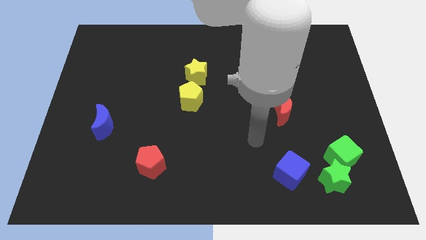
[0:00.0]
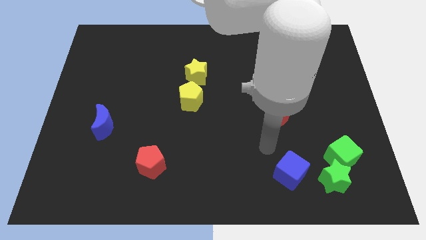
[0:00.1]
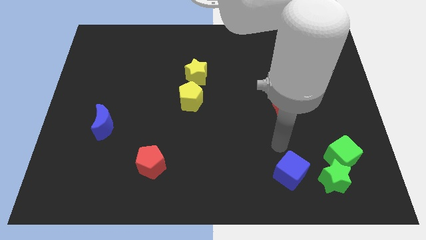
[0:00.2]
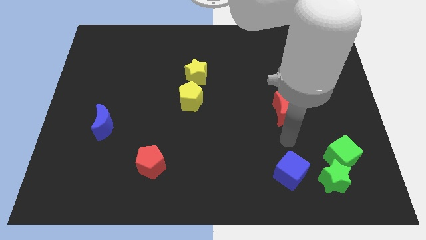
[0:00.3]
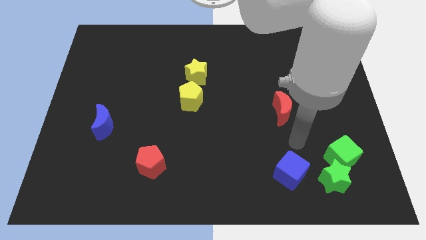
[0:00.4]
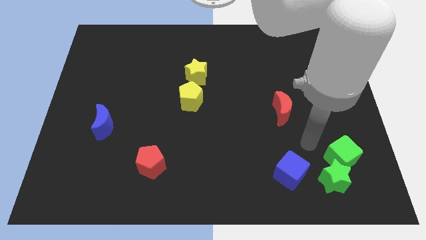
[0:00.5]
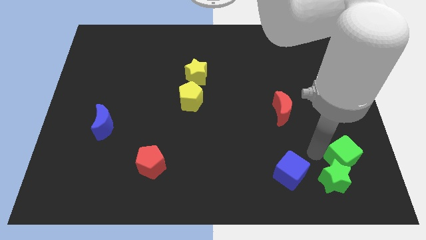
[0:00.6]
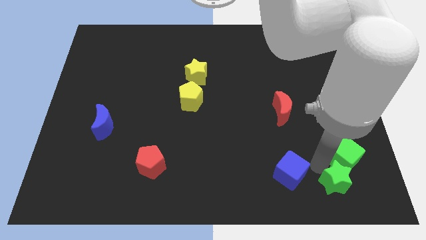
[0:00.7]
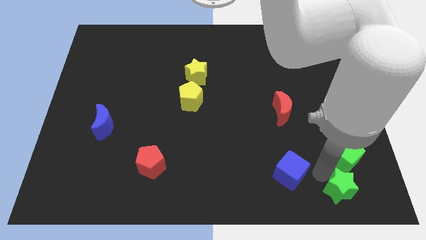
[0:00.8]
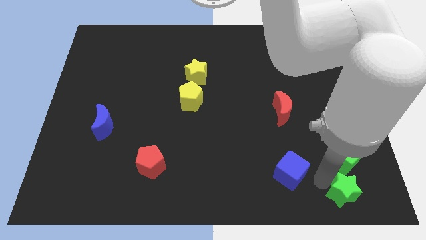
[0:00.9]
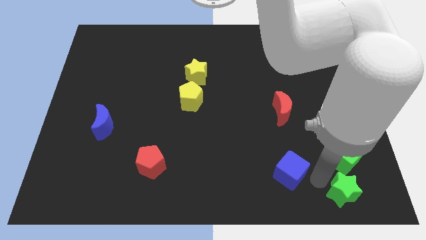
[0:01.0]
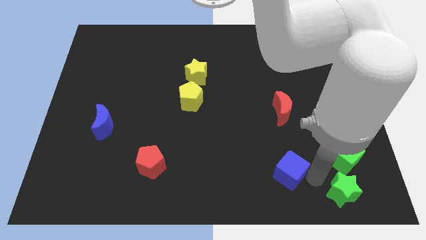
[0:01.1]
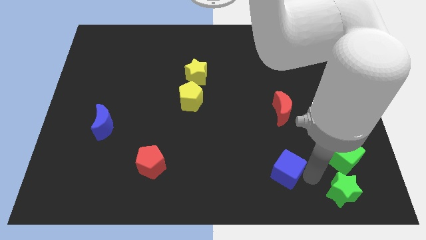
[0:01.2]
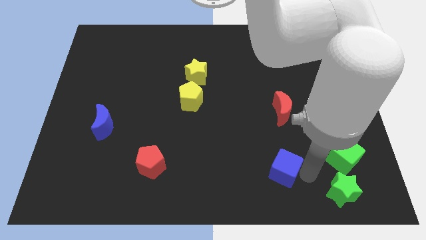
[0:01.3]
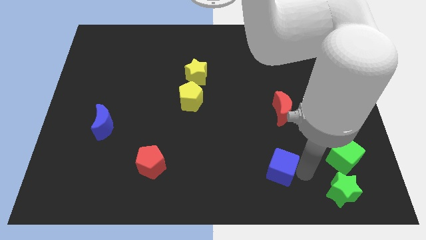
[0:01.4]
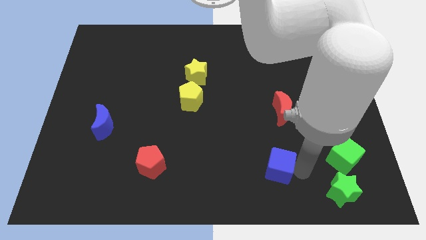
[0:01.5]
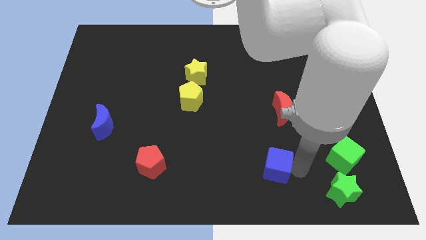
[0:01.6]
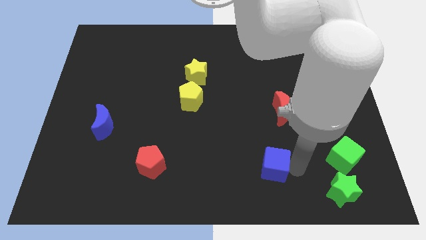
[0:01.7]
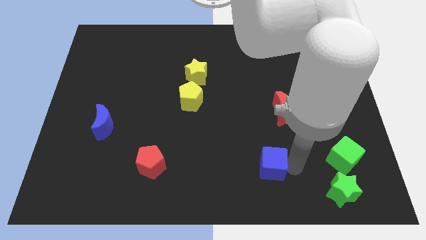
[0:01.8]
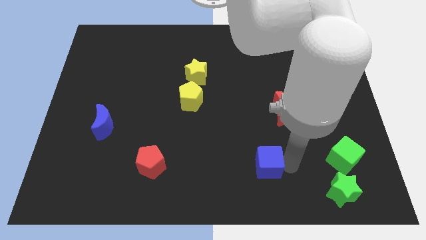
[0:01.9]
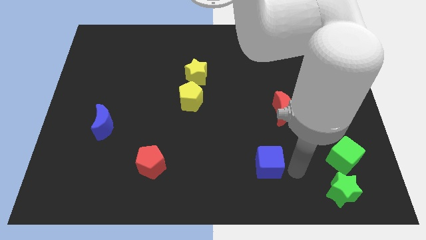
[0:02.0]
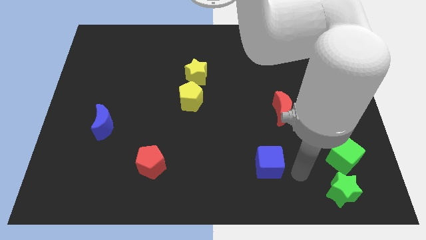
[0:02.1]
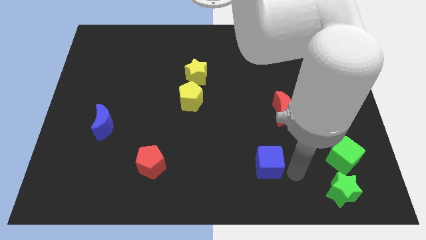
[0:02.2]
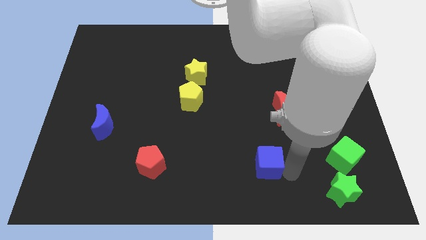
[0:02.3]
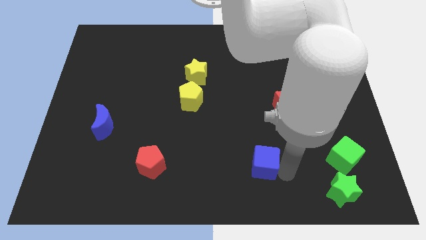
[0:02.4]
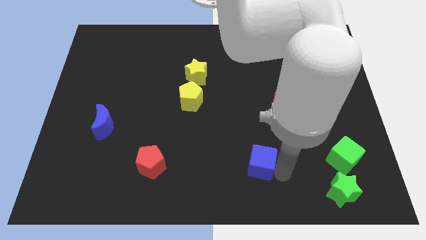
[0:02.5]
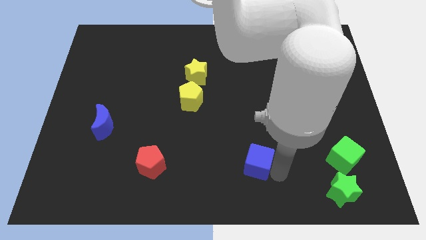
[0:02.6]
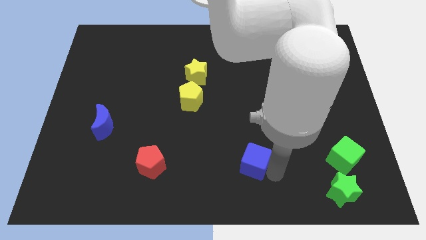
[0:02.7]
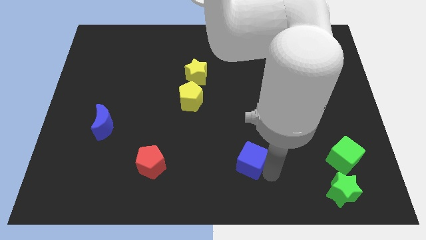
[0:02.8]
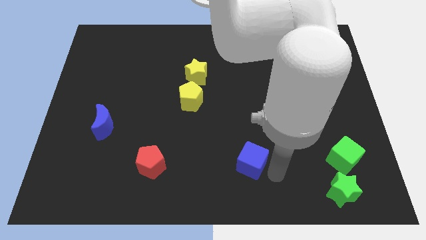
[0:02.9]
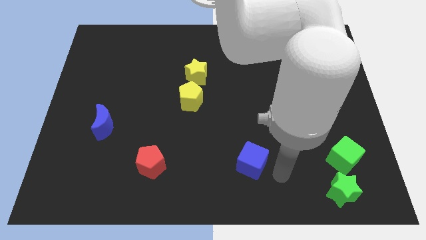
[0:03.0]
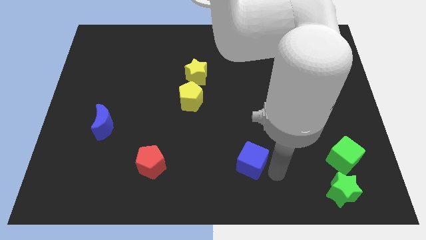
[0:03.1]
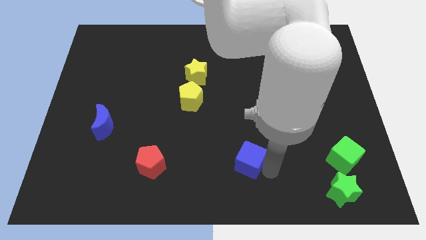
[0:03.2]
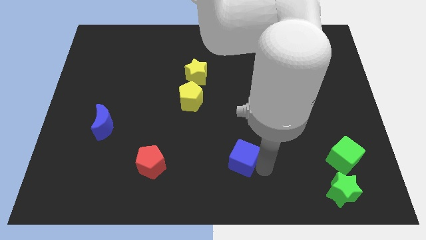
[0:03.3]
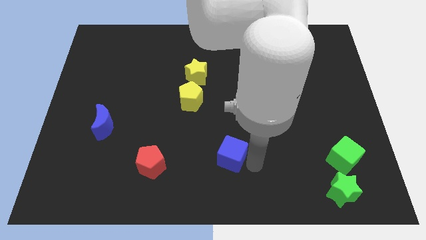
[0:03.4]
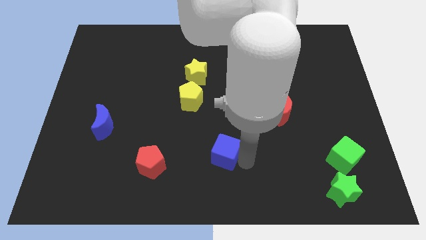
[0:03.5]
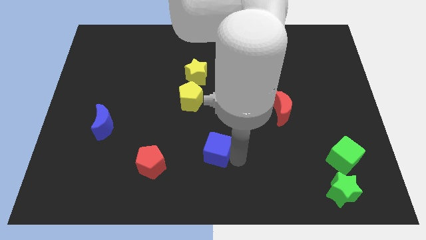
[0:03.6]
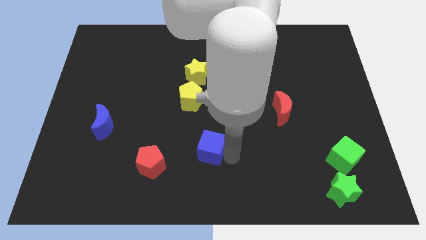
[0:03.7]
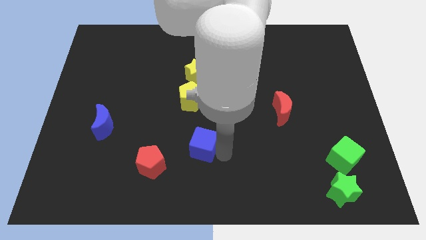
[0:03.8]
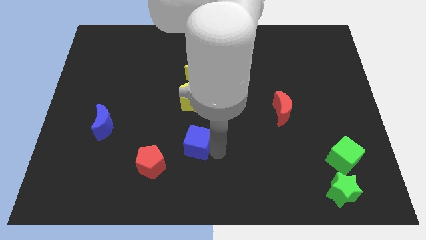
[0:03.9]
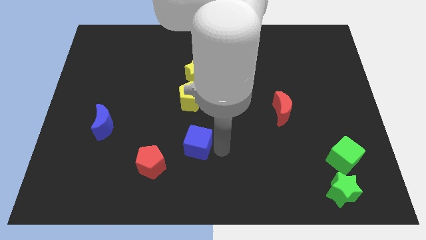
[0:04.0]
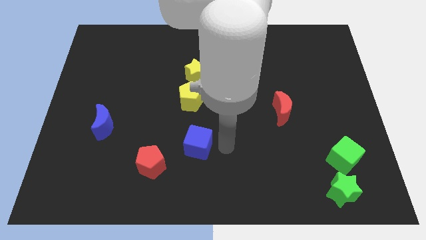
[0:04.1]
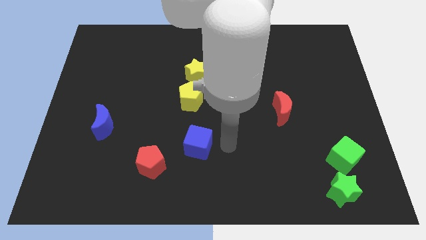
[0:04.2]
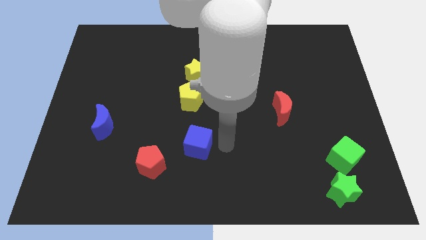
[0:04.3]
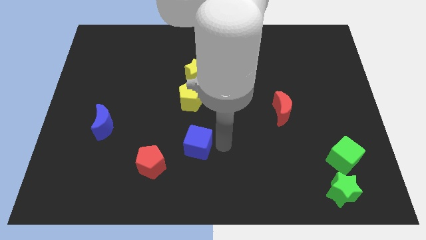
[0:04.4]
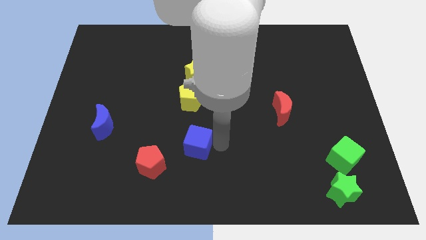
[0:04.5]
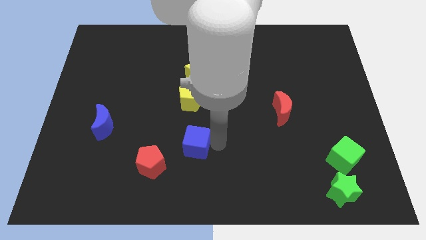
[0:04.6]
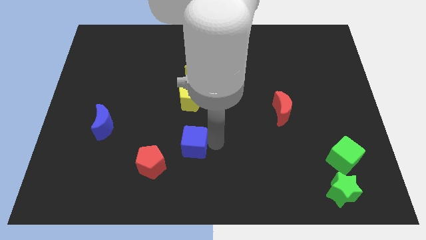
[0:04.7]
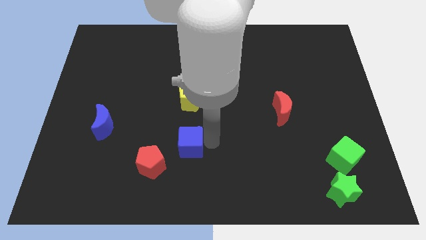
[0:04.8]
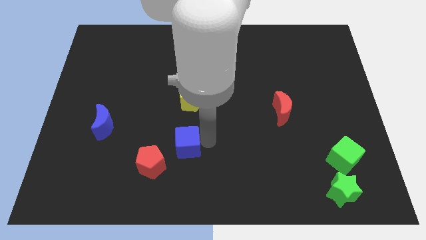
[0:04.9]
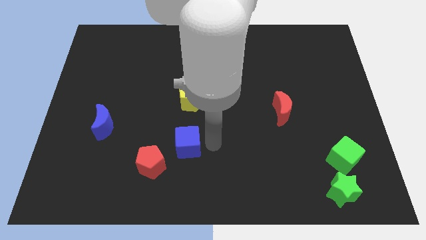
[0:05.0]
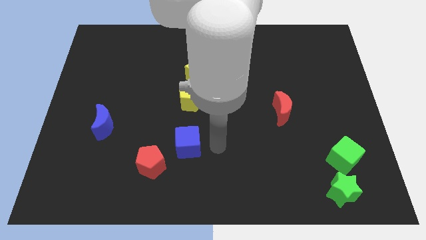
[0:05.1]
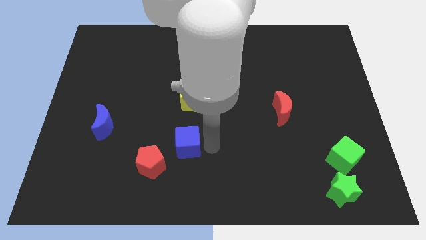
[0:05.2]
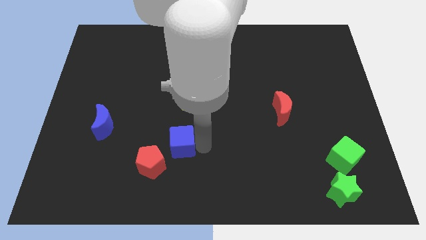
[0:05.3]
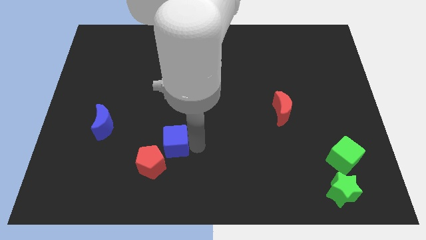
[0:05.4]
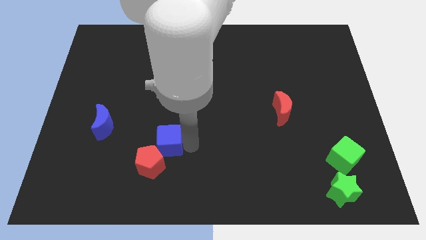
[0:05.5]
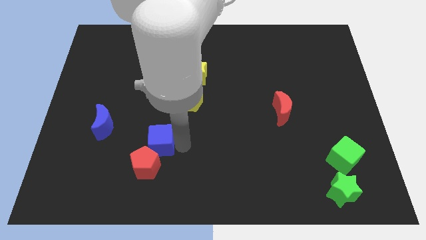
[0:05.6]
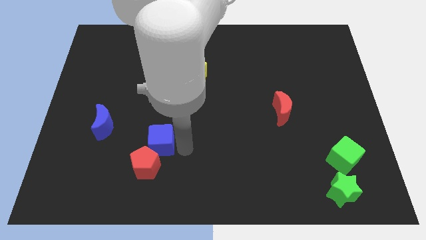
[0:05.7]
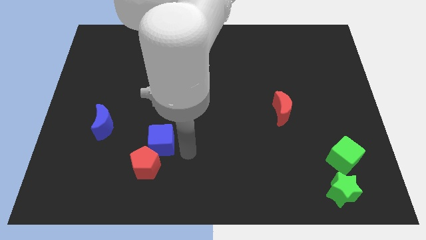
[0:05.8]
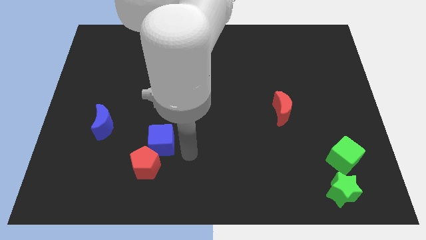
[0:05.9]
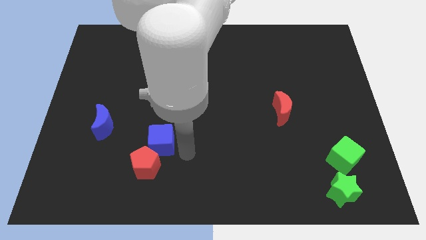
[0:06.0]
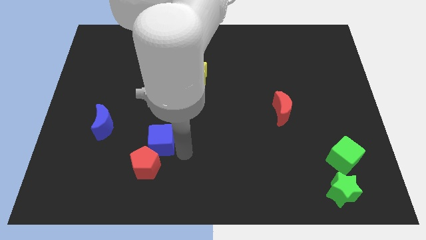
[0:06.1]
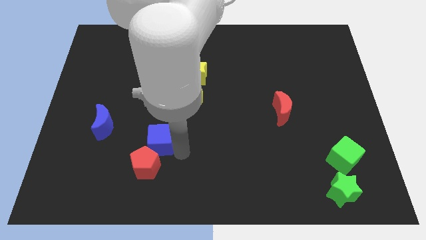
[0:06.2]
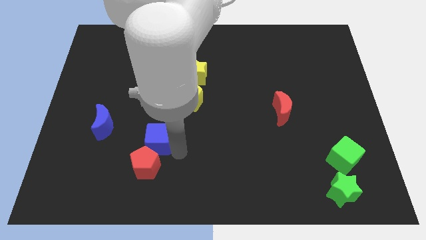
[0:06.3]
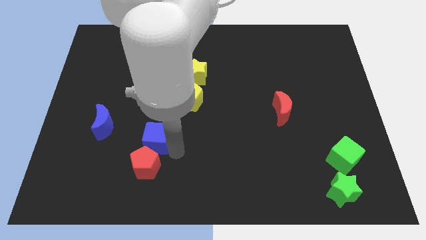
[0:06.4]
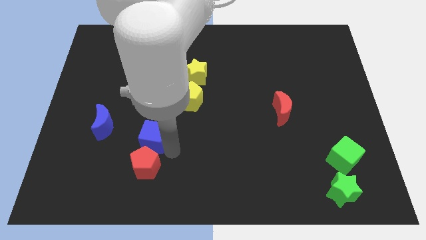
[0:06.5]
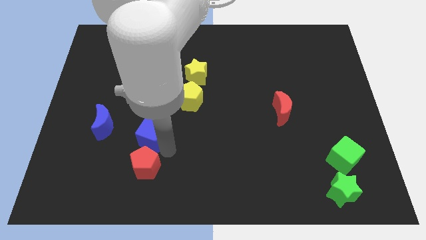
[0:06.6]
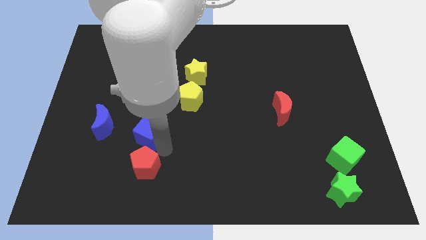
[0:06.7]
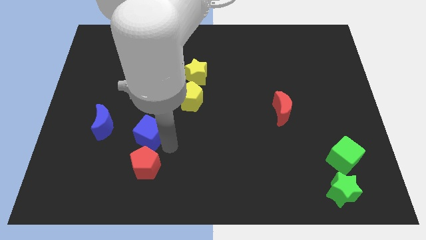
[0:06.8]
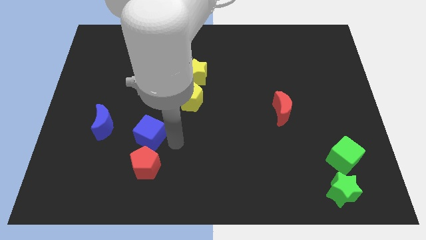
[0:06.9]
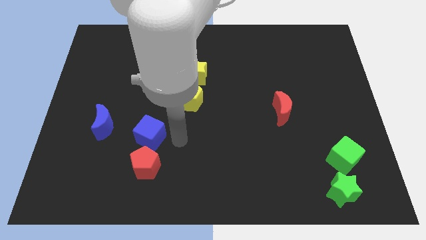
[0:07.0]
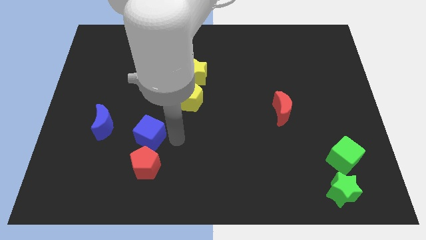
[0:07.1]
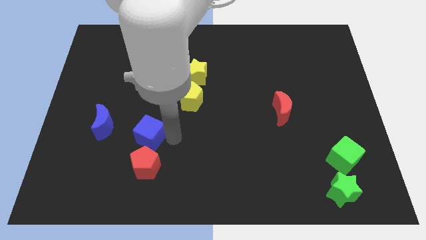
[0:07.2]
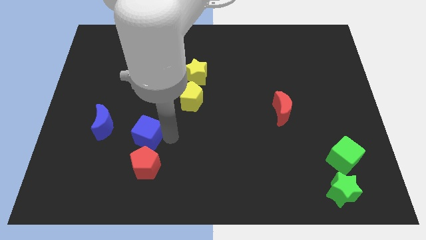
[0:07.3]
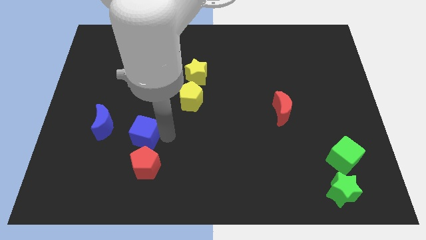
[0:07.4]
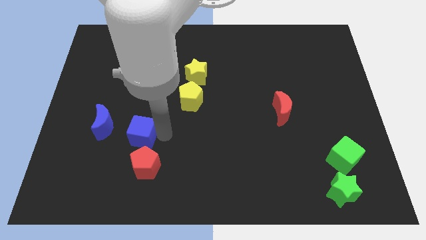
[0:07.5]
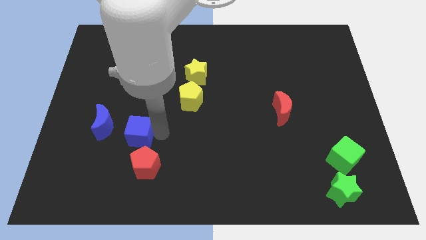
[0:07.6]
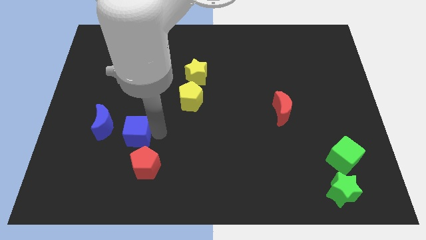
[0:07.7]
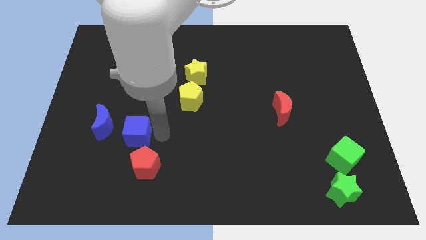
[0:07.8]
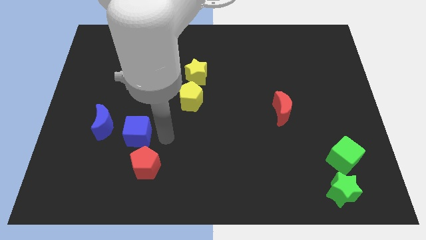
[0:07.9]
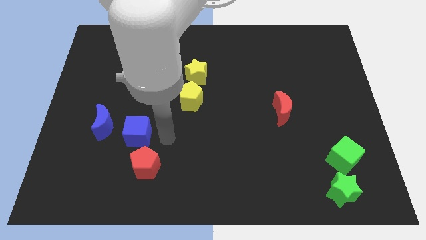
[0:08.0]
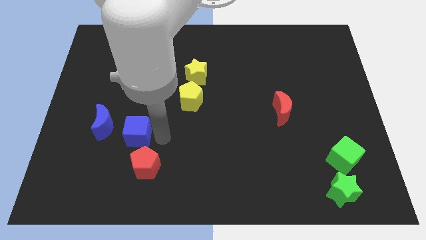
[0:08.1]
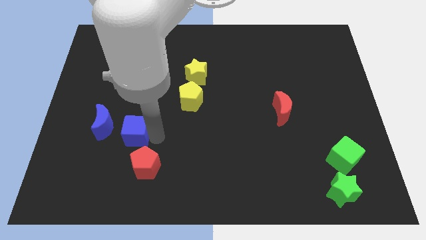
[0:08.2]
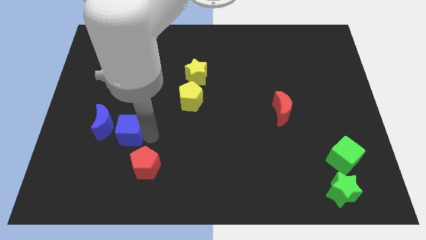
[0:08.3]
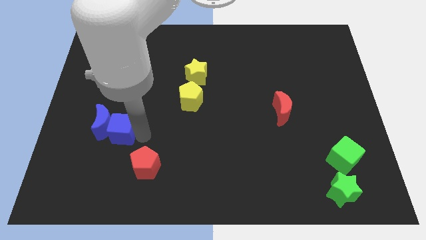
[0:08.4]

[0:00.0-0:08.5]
move the blue cube next to the blue moon
